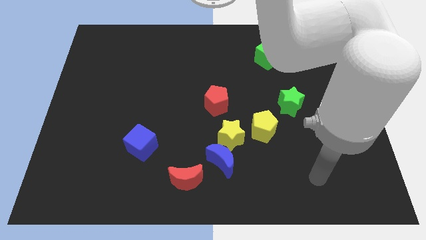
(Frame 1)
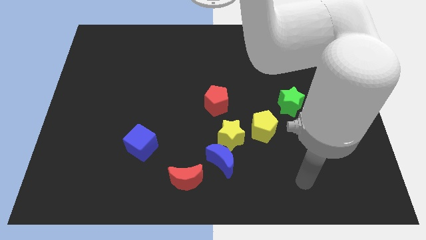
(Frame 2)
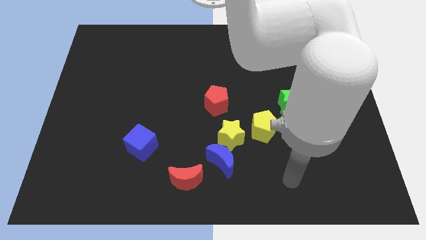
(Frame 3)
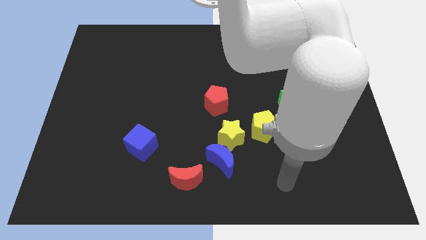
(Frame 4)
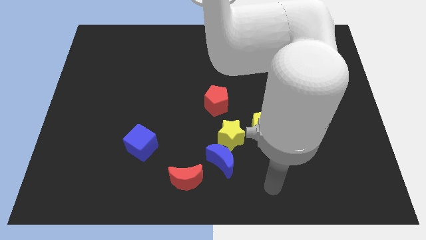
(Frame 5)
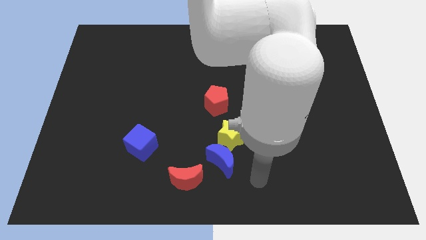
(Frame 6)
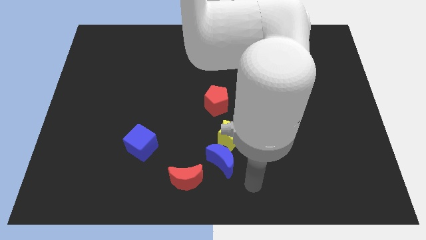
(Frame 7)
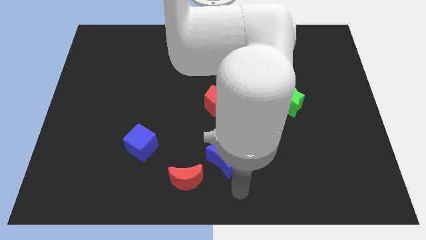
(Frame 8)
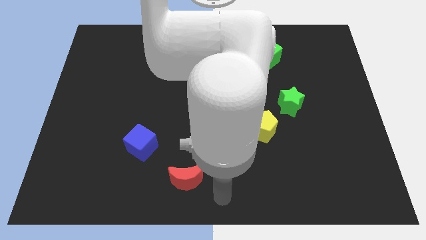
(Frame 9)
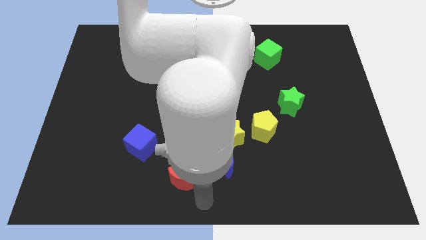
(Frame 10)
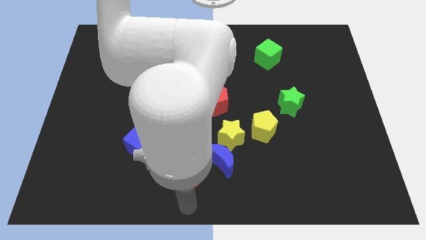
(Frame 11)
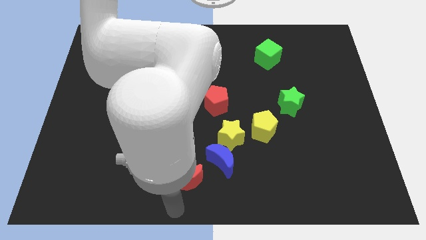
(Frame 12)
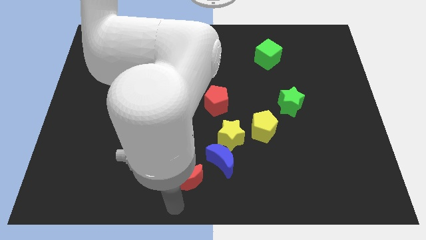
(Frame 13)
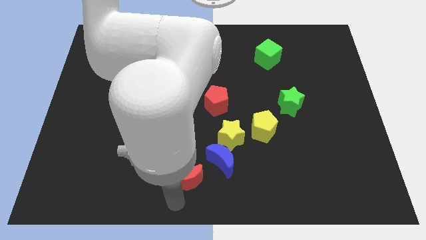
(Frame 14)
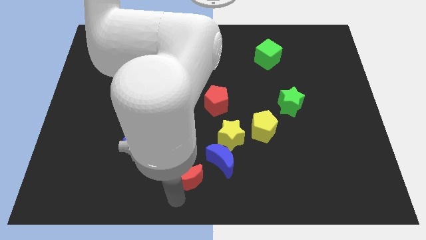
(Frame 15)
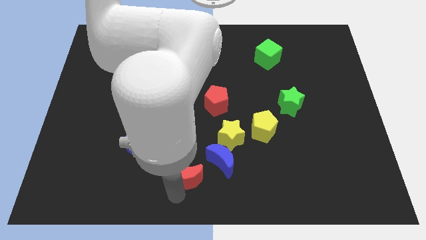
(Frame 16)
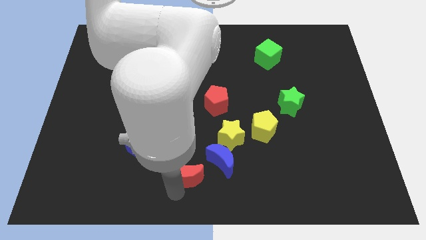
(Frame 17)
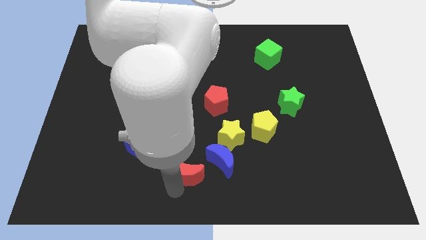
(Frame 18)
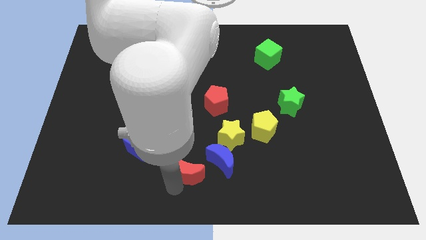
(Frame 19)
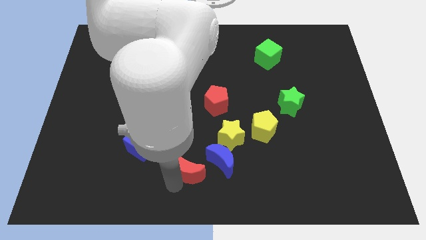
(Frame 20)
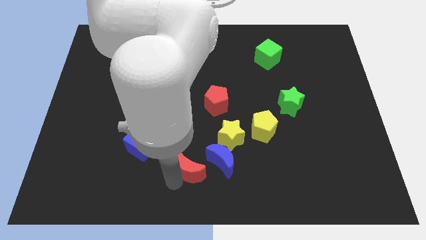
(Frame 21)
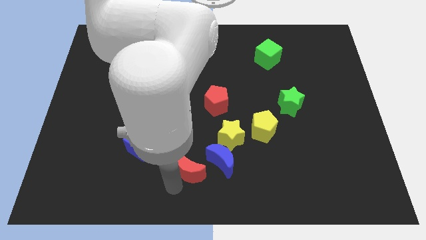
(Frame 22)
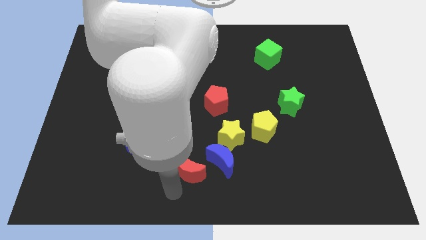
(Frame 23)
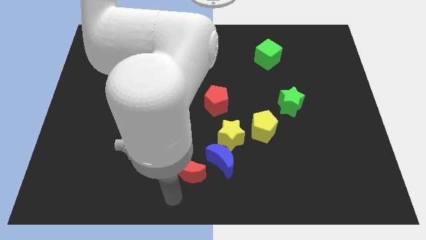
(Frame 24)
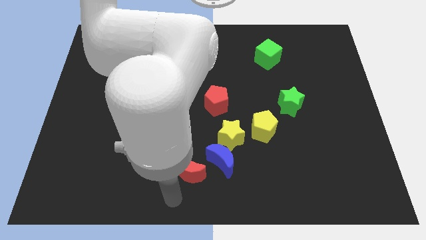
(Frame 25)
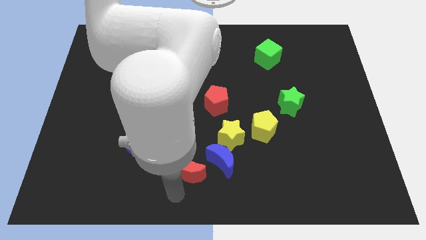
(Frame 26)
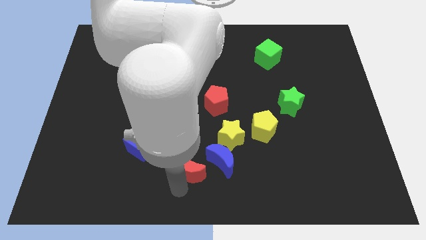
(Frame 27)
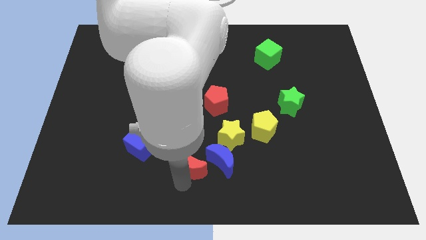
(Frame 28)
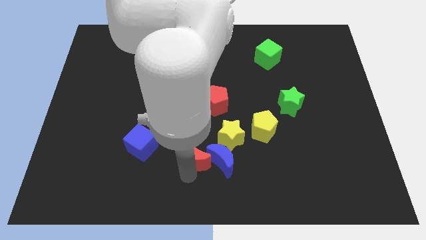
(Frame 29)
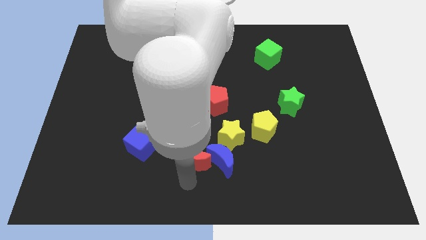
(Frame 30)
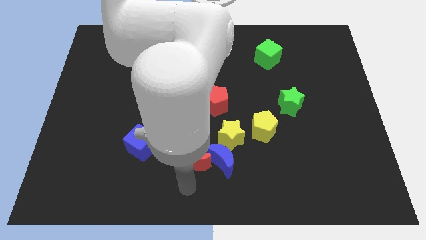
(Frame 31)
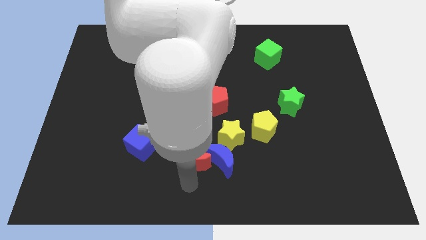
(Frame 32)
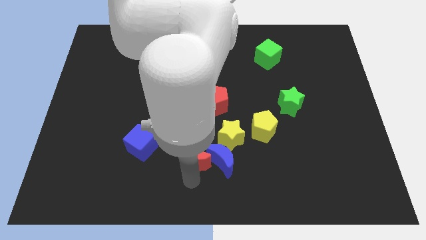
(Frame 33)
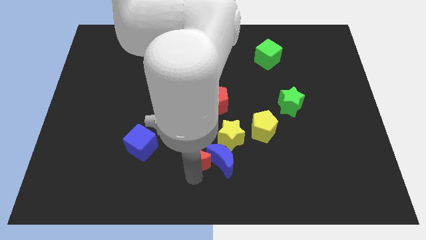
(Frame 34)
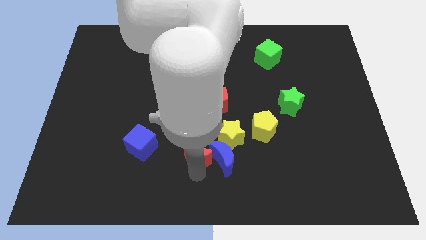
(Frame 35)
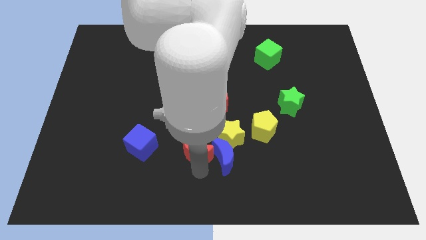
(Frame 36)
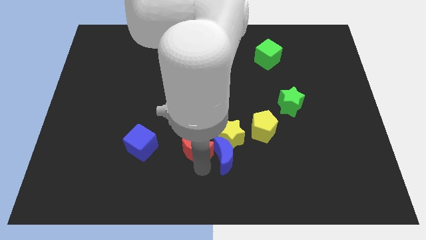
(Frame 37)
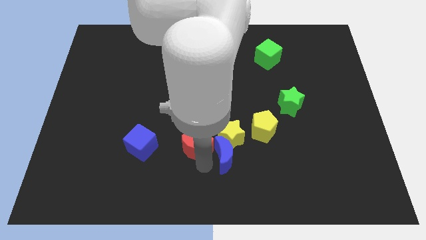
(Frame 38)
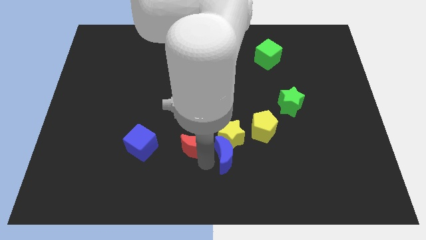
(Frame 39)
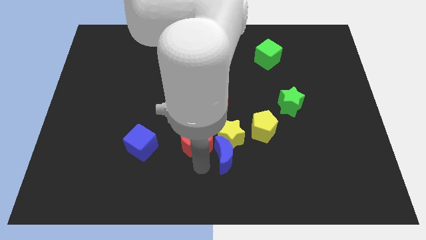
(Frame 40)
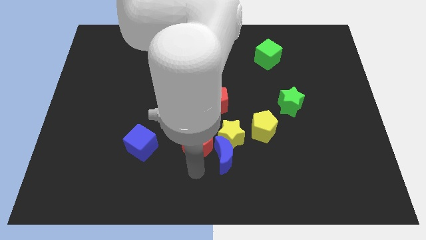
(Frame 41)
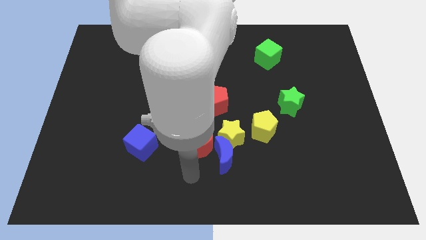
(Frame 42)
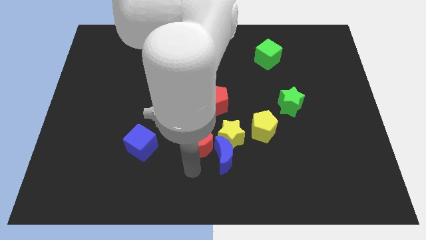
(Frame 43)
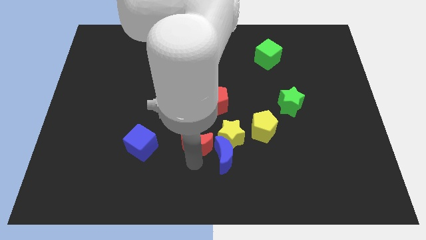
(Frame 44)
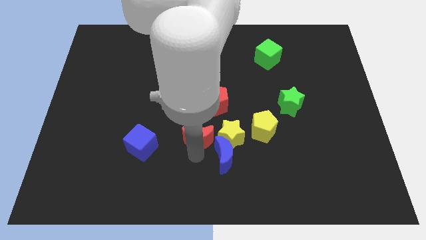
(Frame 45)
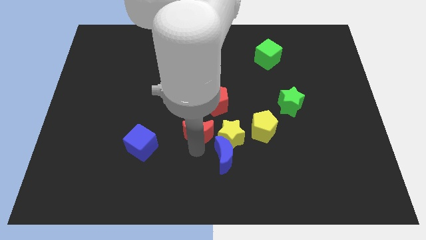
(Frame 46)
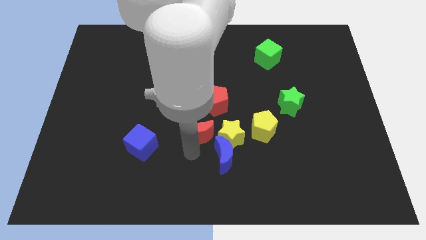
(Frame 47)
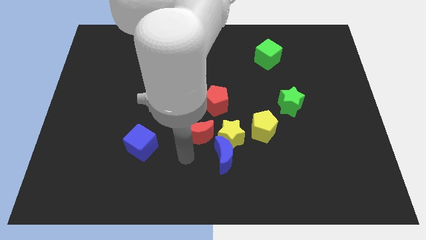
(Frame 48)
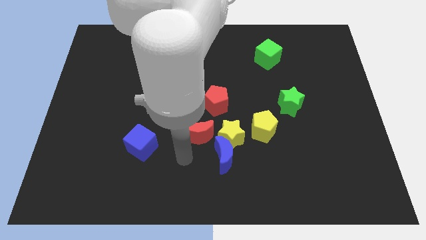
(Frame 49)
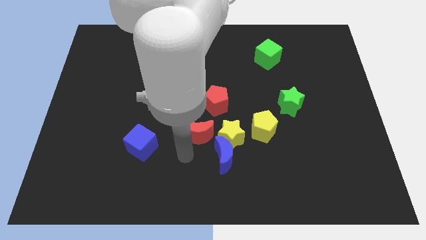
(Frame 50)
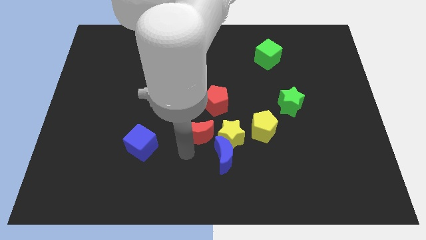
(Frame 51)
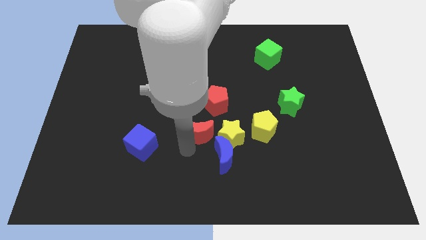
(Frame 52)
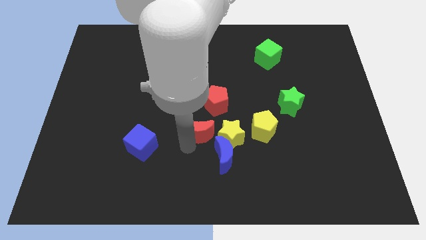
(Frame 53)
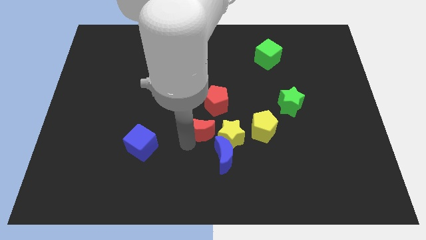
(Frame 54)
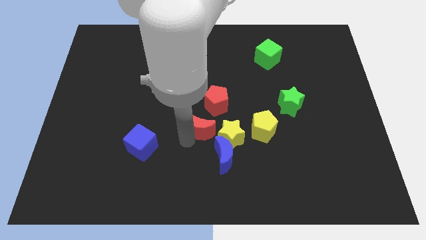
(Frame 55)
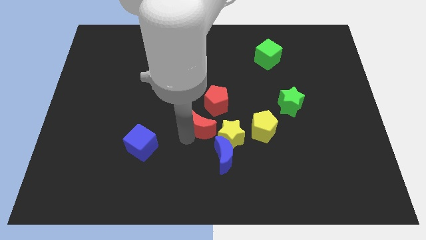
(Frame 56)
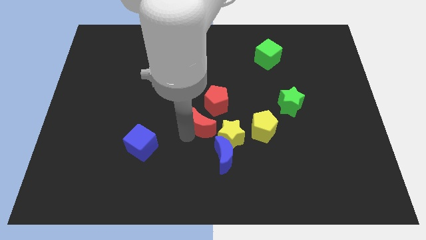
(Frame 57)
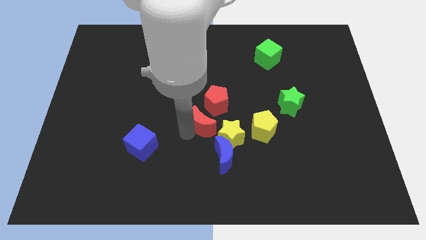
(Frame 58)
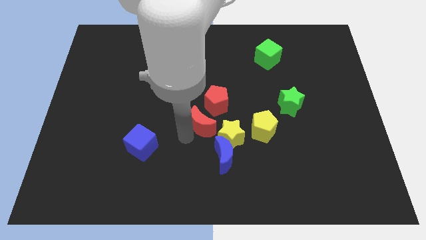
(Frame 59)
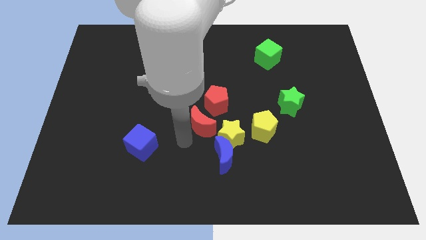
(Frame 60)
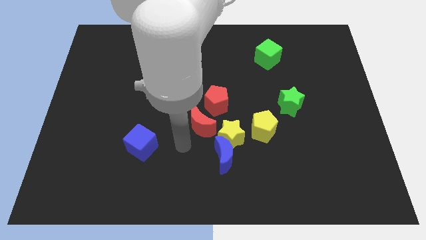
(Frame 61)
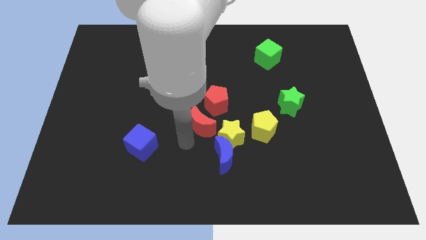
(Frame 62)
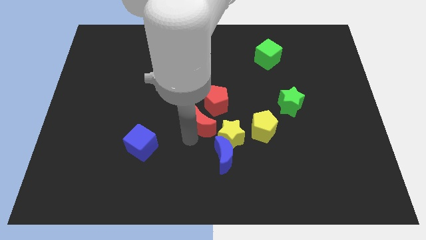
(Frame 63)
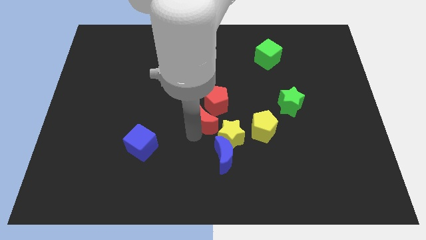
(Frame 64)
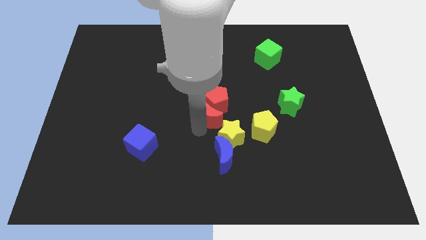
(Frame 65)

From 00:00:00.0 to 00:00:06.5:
push the red moon next to the red pentagon
